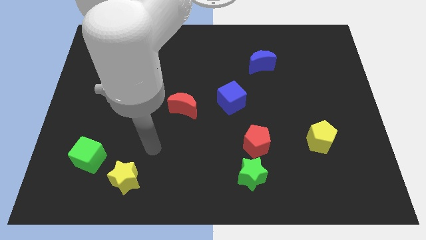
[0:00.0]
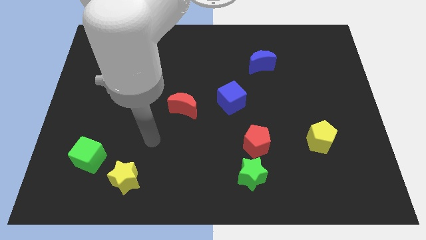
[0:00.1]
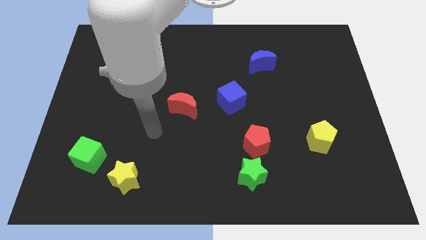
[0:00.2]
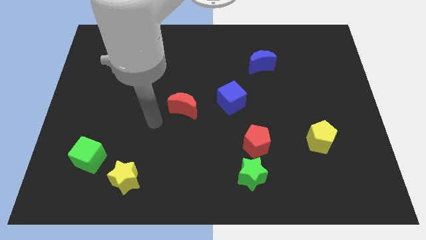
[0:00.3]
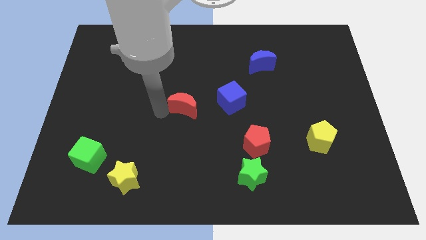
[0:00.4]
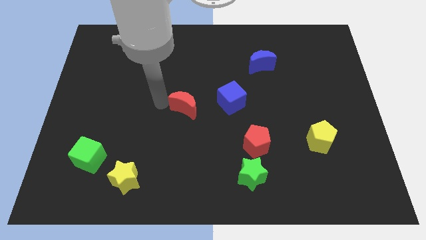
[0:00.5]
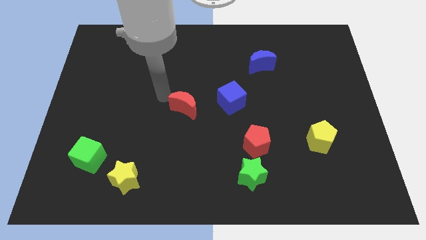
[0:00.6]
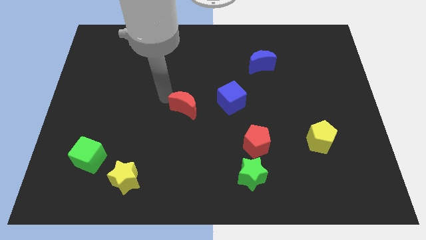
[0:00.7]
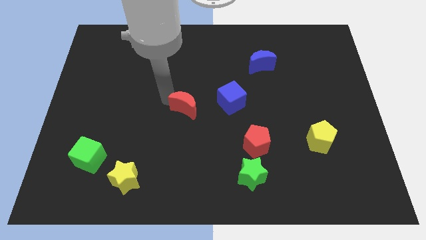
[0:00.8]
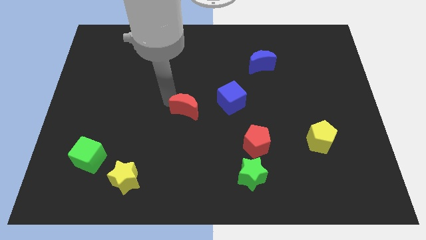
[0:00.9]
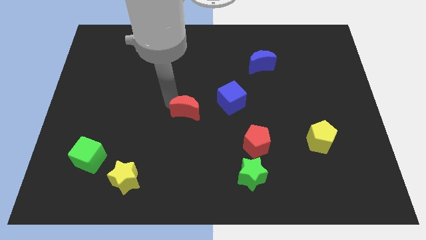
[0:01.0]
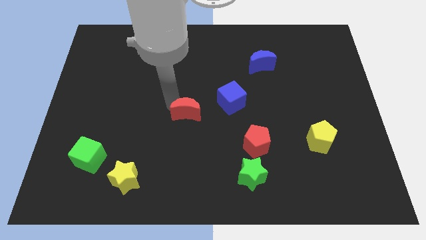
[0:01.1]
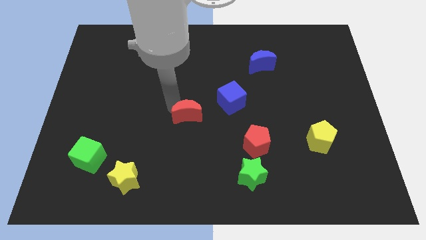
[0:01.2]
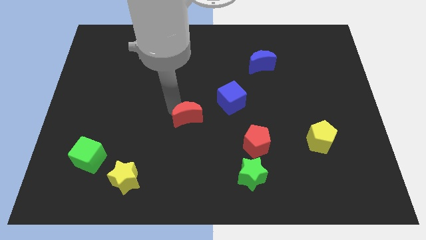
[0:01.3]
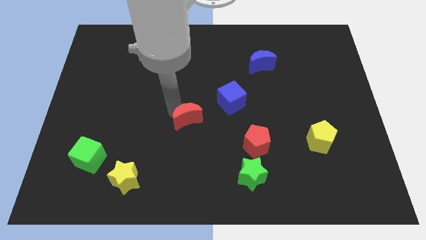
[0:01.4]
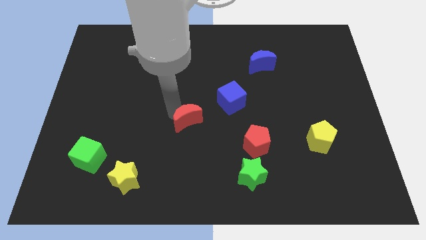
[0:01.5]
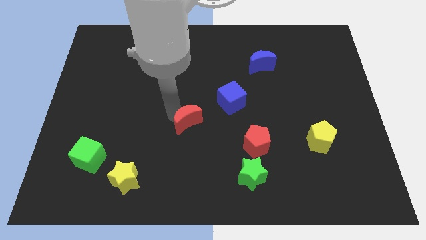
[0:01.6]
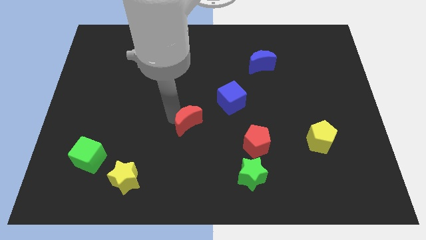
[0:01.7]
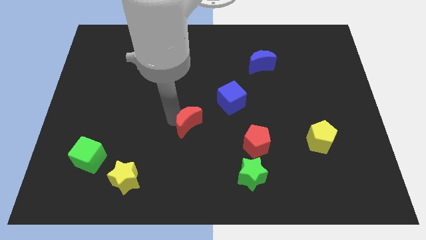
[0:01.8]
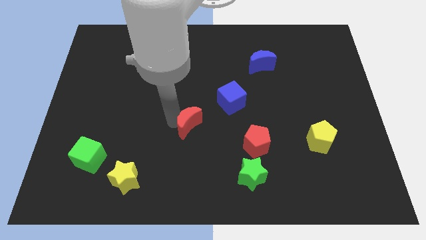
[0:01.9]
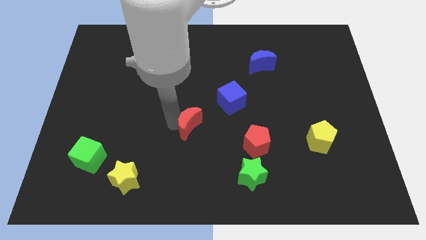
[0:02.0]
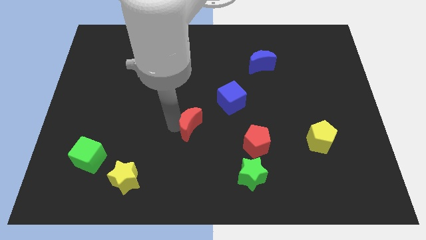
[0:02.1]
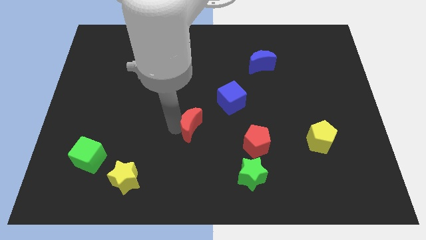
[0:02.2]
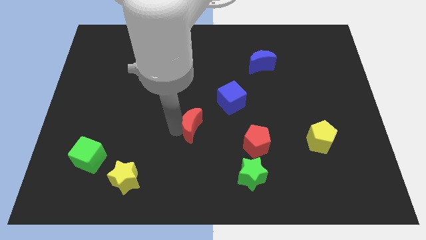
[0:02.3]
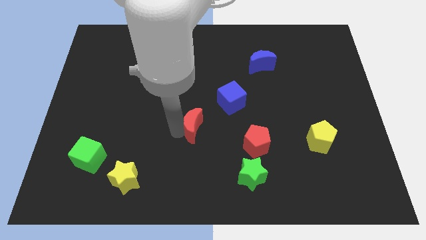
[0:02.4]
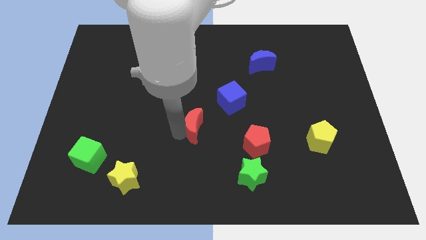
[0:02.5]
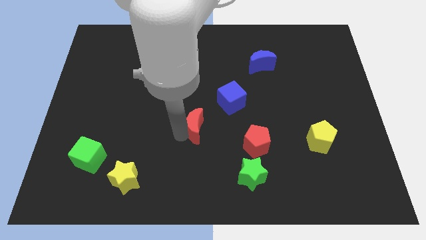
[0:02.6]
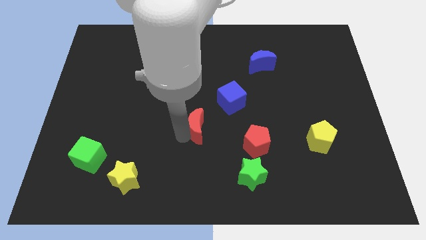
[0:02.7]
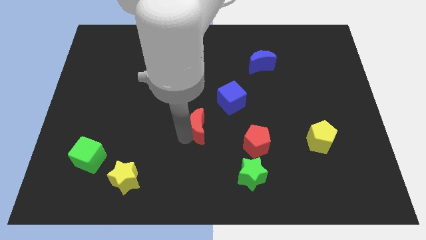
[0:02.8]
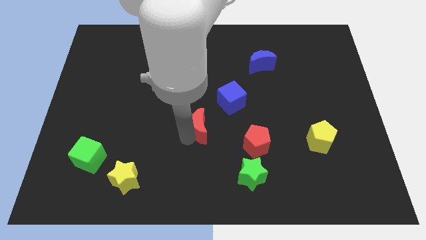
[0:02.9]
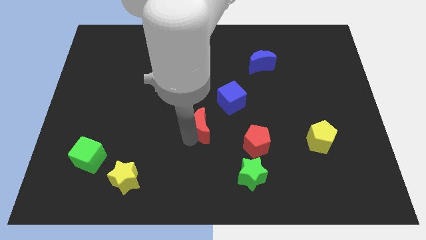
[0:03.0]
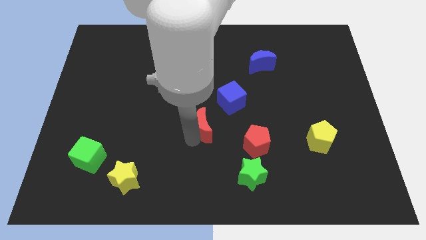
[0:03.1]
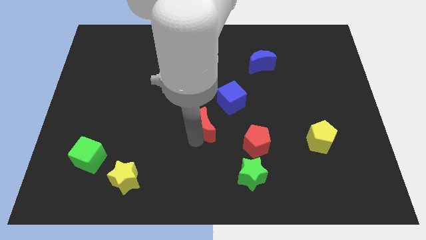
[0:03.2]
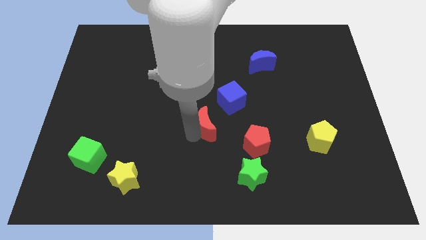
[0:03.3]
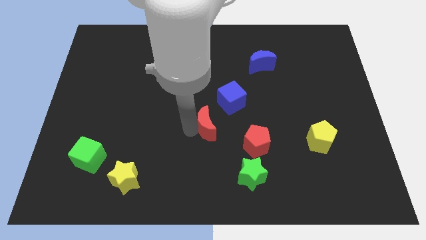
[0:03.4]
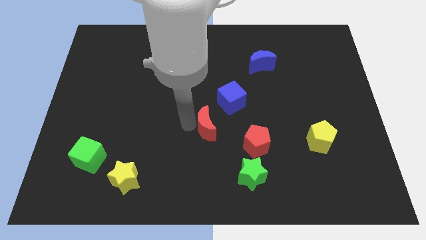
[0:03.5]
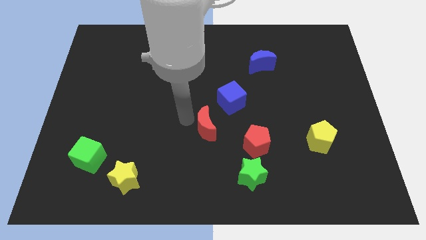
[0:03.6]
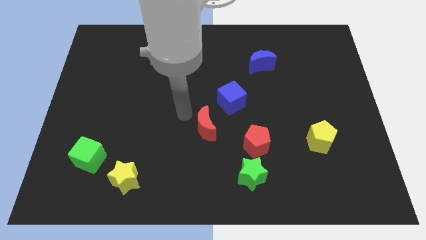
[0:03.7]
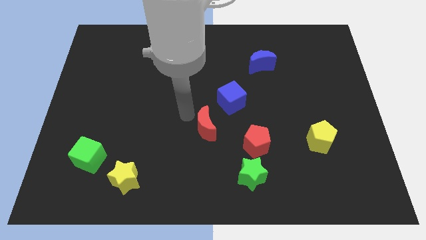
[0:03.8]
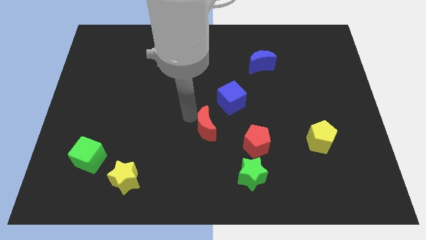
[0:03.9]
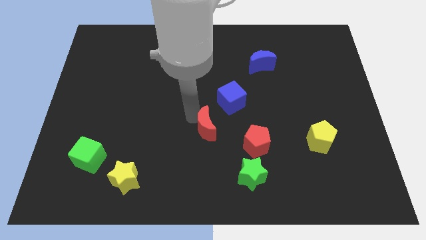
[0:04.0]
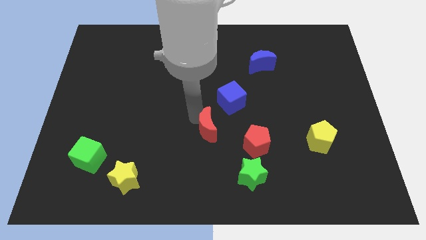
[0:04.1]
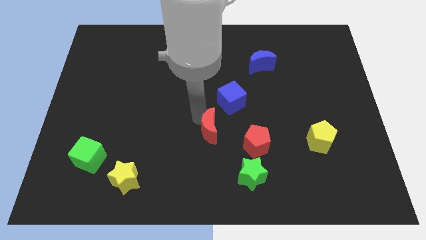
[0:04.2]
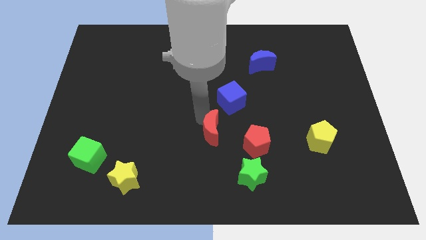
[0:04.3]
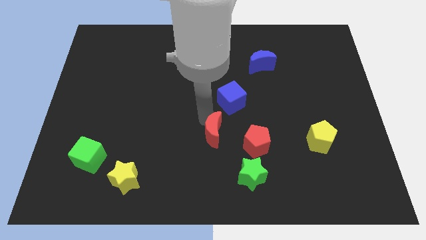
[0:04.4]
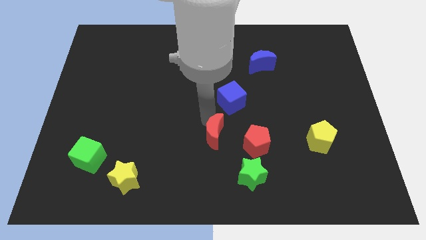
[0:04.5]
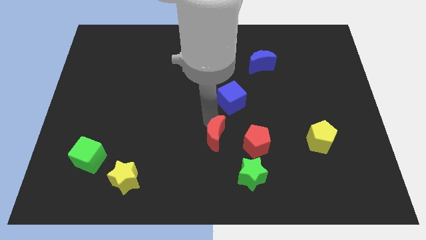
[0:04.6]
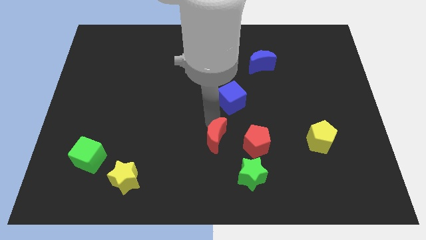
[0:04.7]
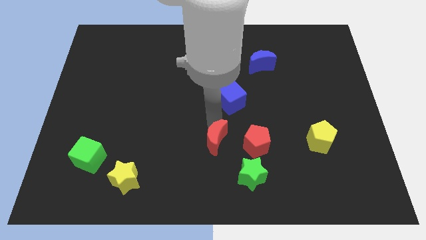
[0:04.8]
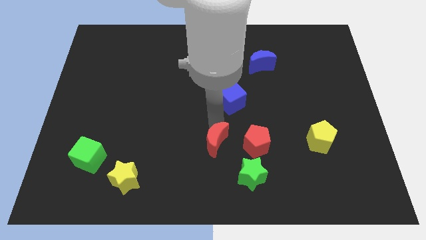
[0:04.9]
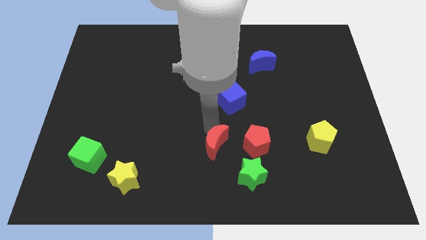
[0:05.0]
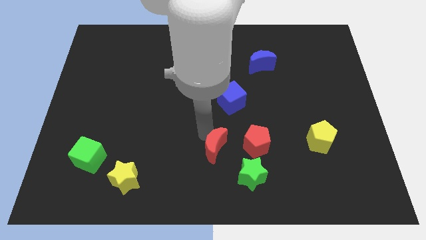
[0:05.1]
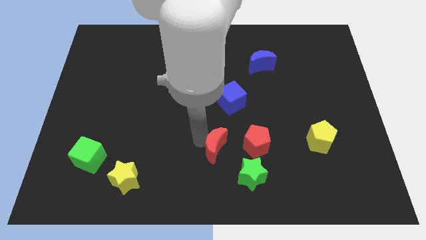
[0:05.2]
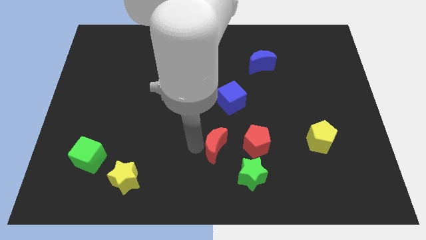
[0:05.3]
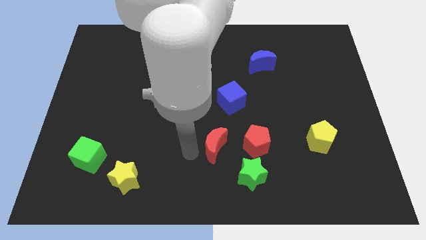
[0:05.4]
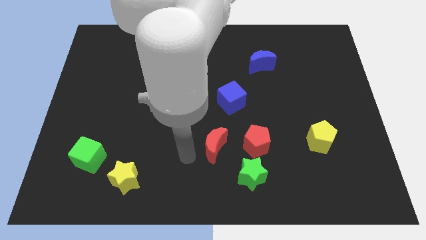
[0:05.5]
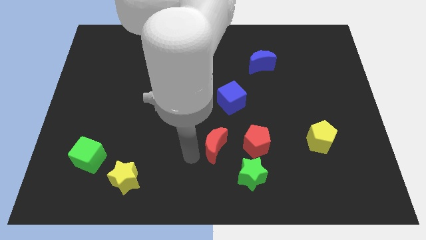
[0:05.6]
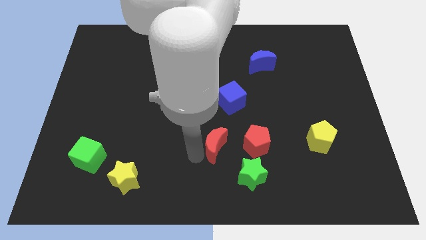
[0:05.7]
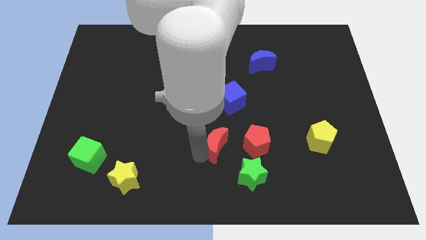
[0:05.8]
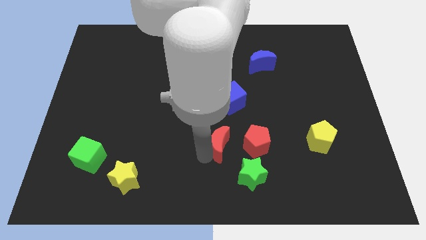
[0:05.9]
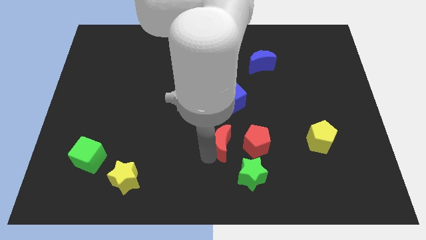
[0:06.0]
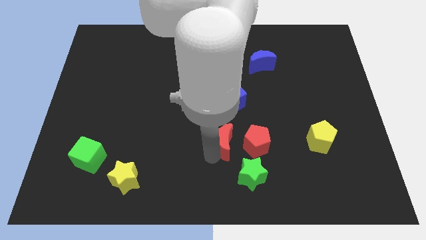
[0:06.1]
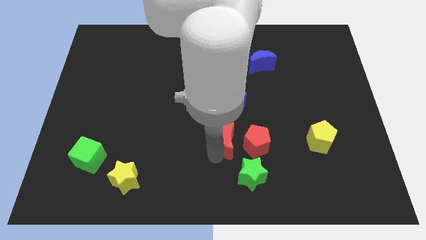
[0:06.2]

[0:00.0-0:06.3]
put the red moon to the top of the green star
